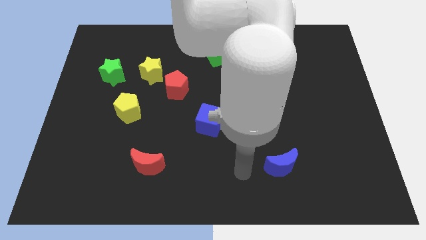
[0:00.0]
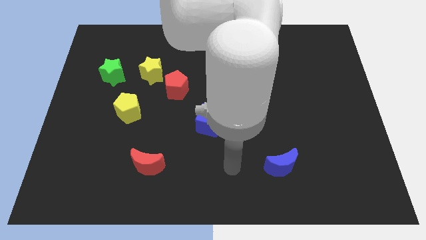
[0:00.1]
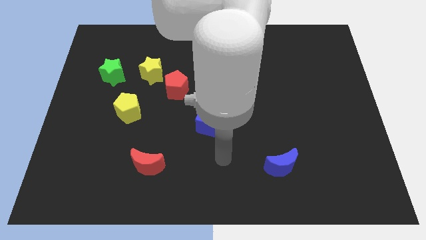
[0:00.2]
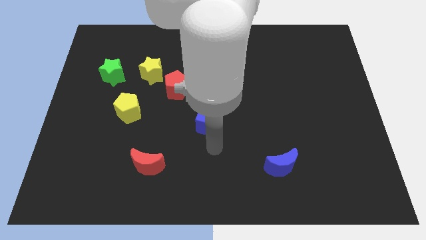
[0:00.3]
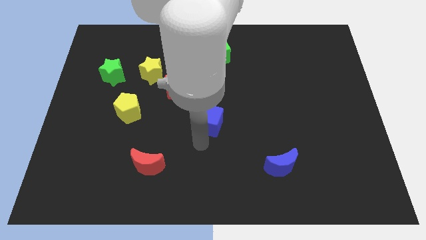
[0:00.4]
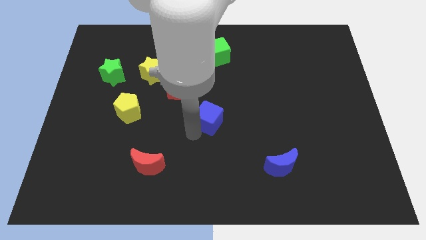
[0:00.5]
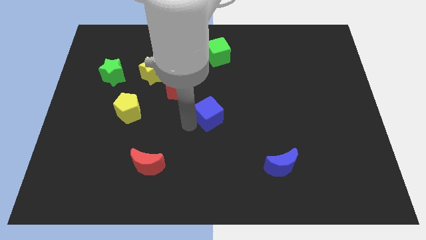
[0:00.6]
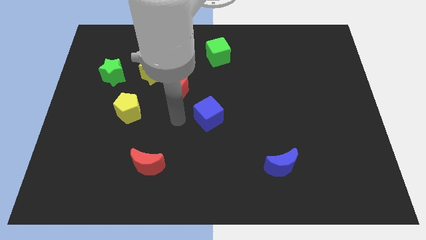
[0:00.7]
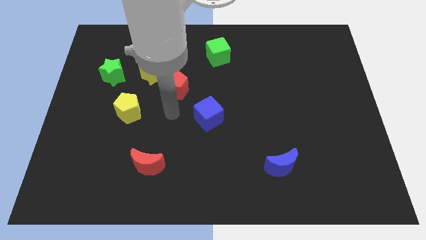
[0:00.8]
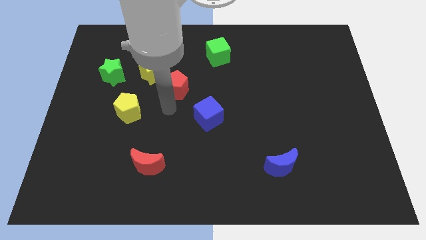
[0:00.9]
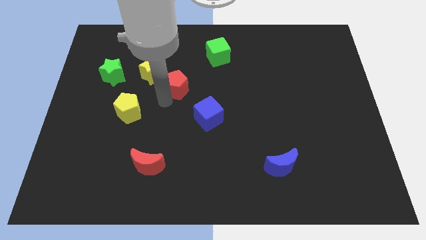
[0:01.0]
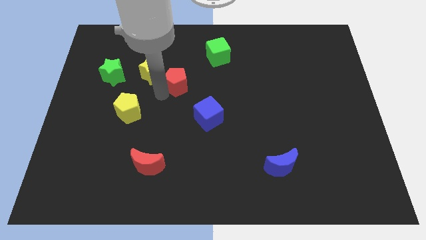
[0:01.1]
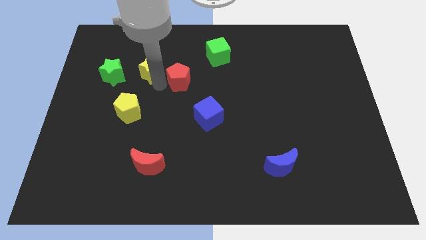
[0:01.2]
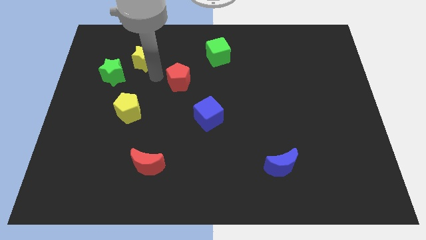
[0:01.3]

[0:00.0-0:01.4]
move the red pentagon away from the yellow star

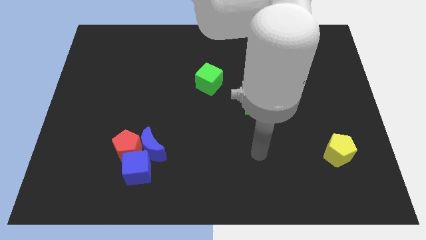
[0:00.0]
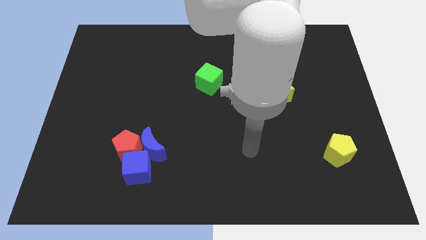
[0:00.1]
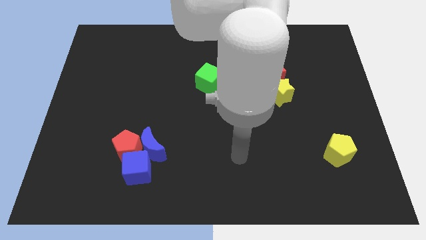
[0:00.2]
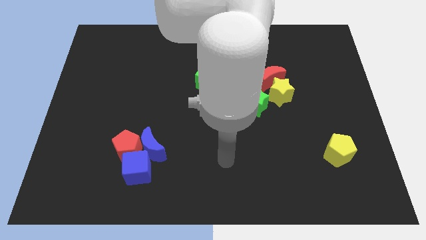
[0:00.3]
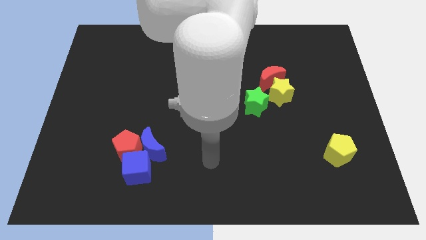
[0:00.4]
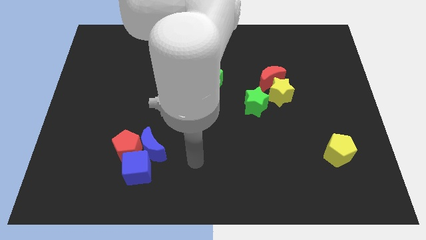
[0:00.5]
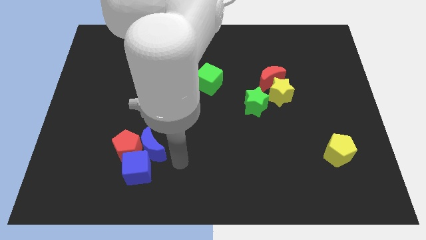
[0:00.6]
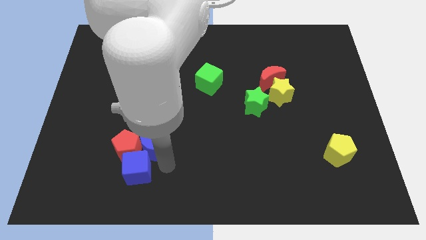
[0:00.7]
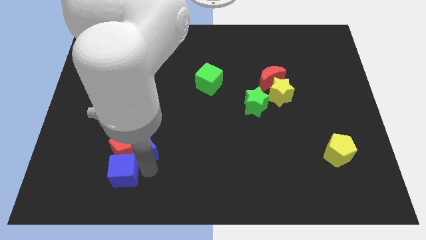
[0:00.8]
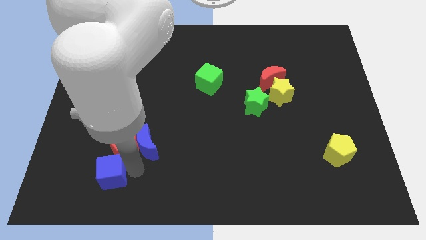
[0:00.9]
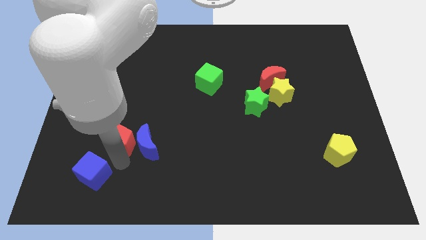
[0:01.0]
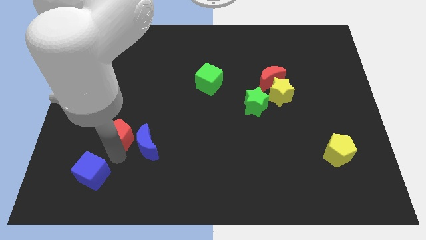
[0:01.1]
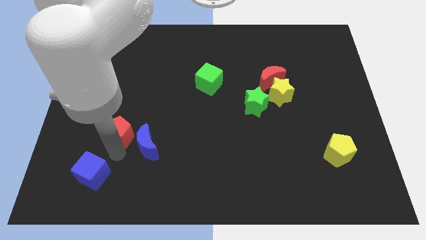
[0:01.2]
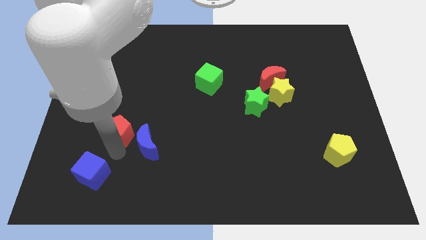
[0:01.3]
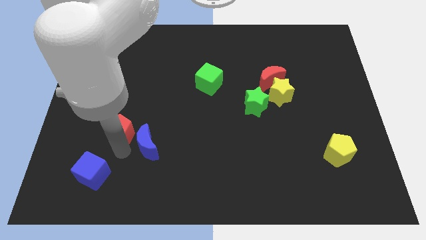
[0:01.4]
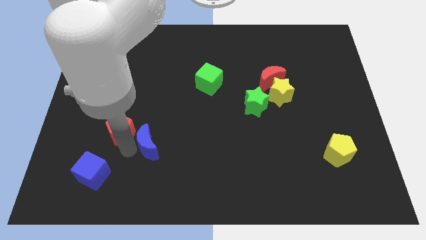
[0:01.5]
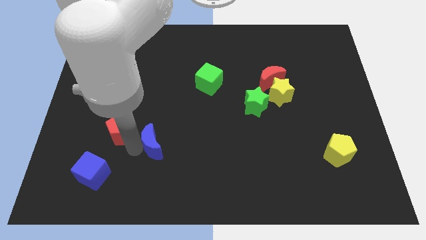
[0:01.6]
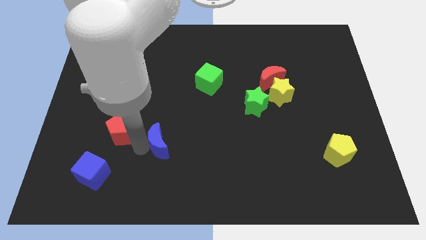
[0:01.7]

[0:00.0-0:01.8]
separate the blue moon from the red pentagon and blue cube

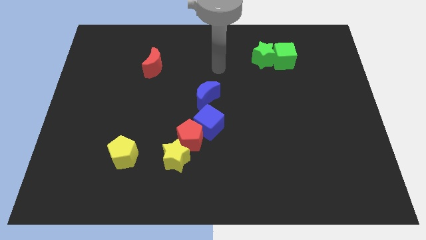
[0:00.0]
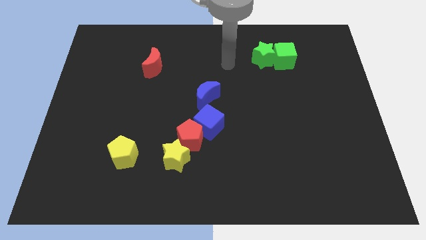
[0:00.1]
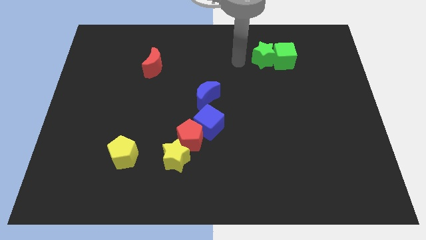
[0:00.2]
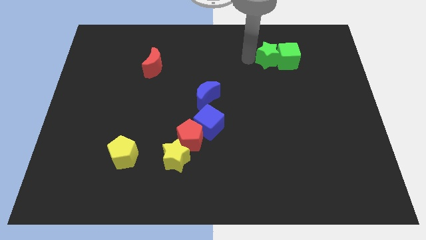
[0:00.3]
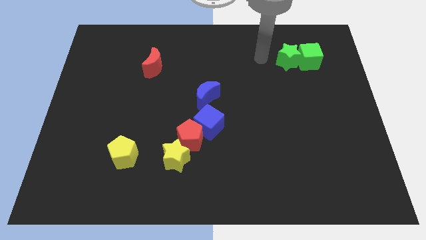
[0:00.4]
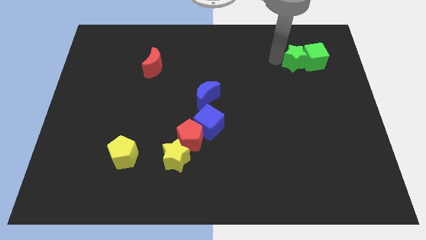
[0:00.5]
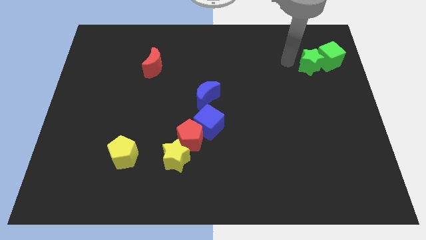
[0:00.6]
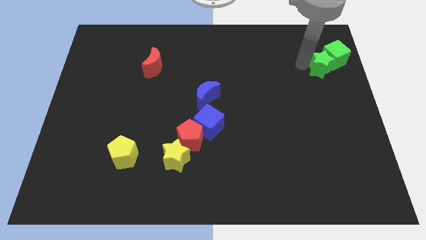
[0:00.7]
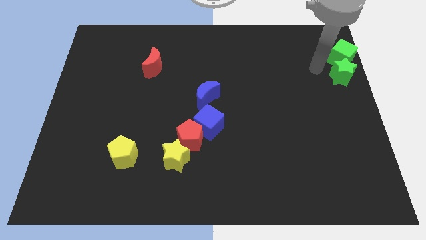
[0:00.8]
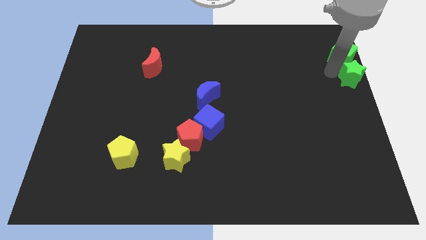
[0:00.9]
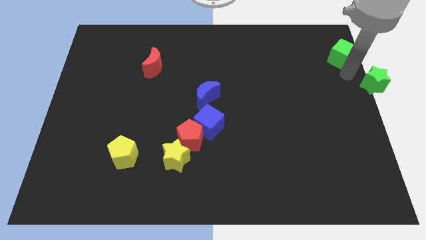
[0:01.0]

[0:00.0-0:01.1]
move the green cube away from the green star

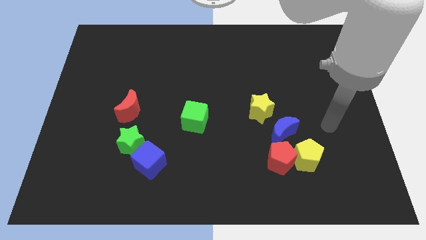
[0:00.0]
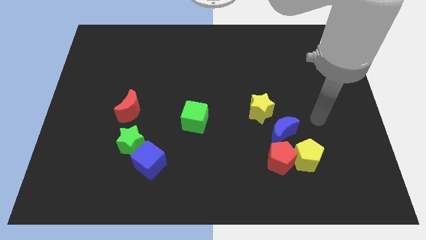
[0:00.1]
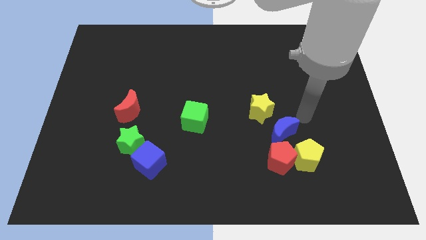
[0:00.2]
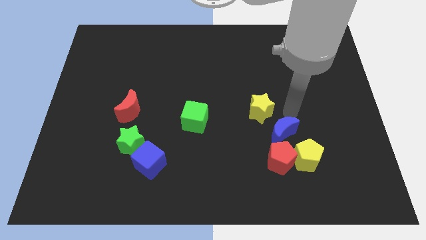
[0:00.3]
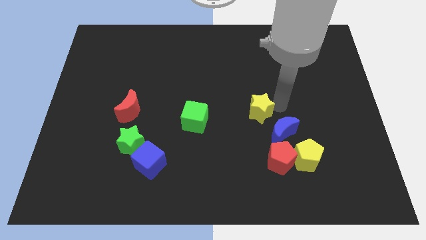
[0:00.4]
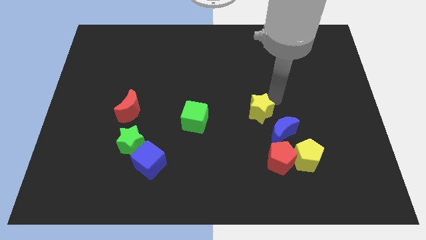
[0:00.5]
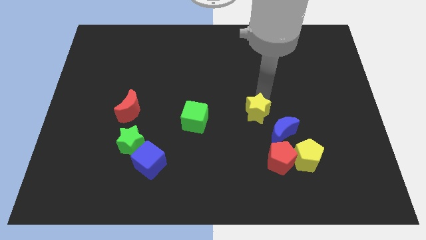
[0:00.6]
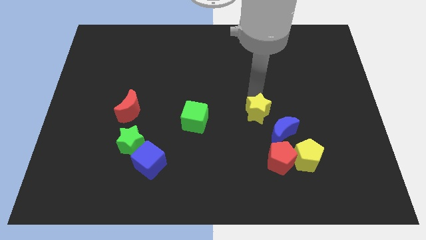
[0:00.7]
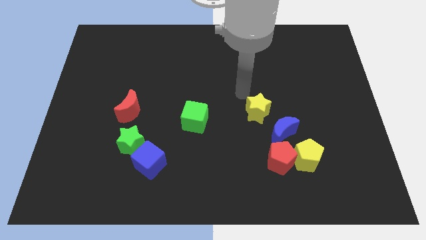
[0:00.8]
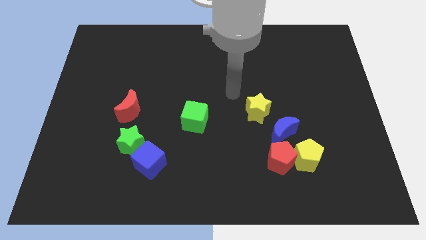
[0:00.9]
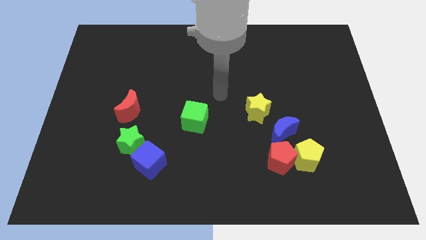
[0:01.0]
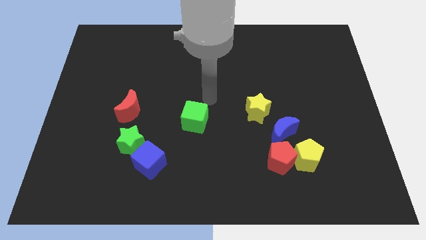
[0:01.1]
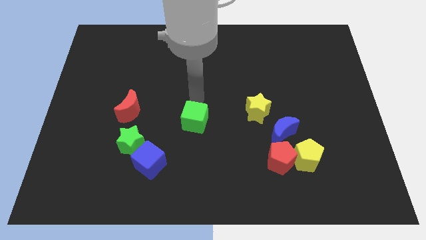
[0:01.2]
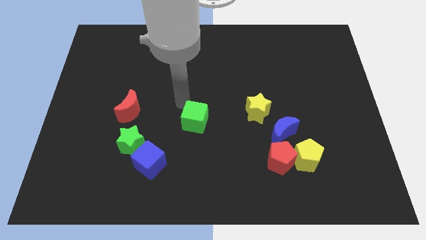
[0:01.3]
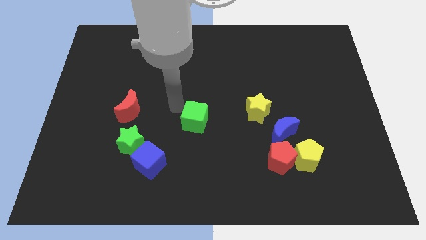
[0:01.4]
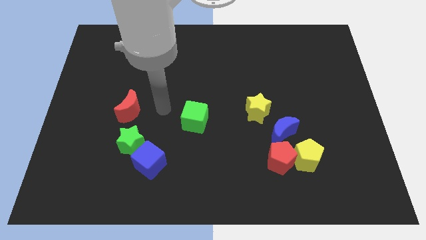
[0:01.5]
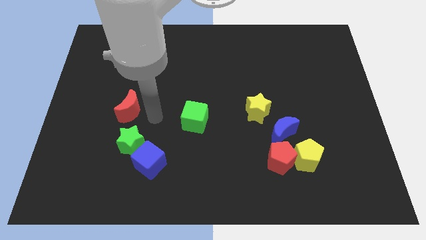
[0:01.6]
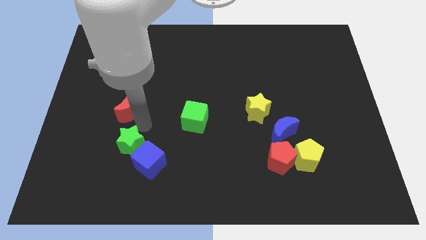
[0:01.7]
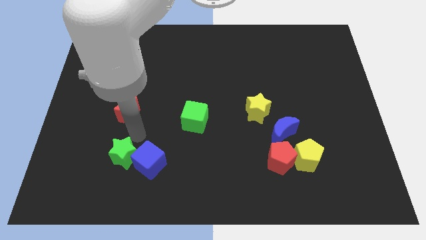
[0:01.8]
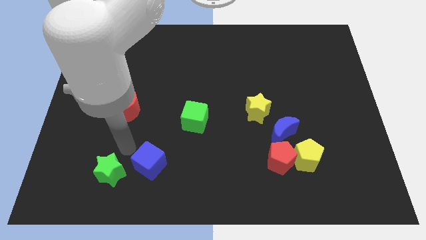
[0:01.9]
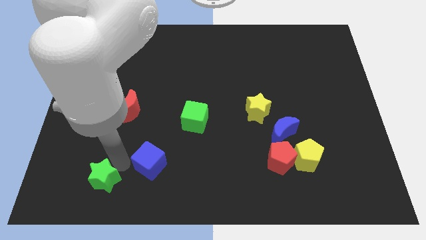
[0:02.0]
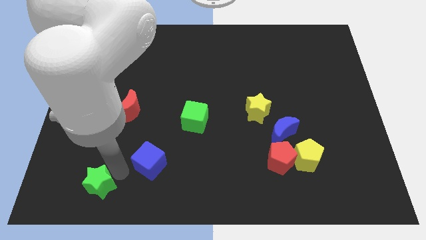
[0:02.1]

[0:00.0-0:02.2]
separate the blue cube from the green star

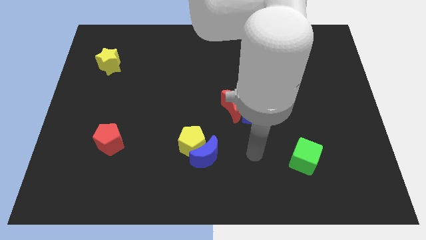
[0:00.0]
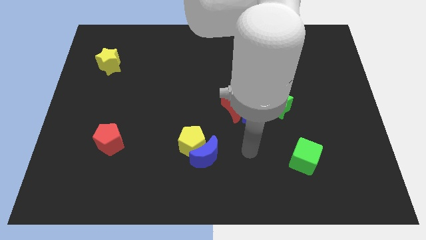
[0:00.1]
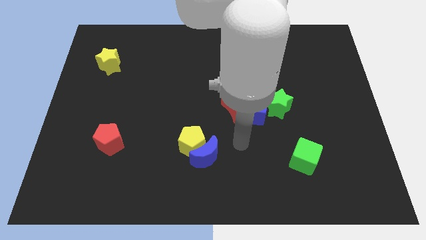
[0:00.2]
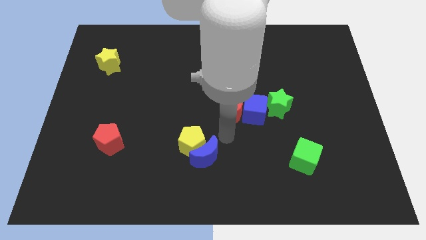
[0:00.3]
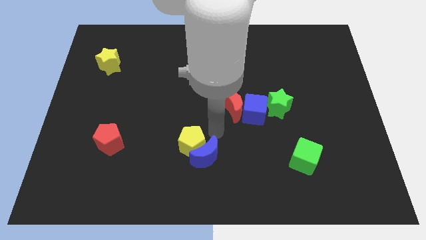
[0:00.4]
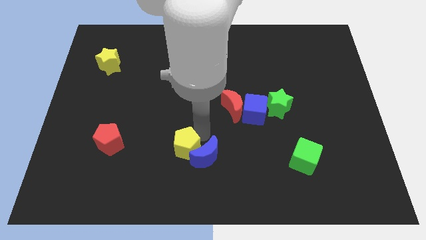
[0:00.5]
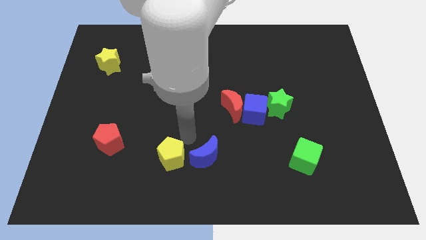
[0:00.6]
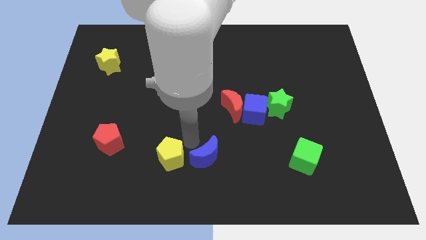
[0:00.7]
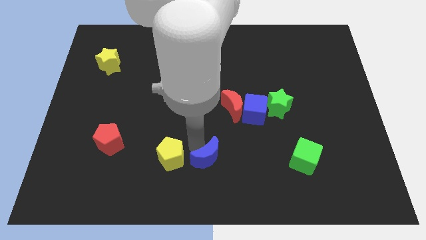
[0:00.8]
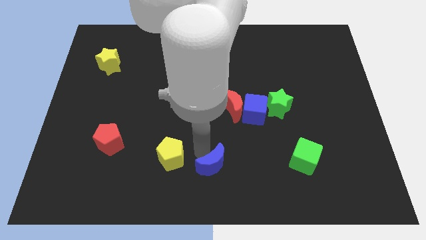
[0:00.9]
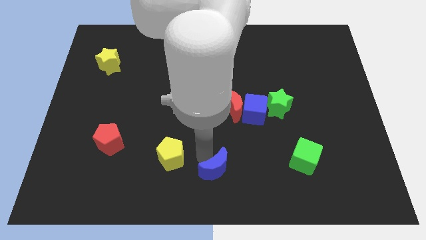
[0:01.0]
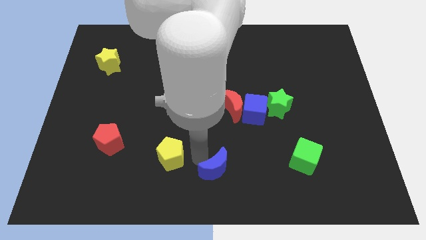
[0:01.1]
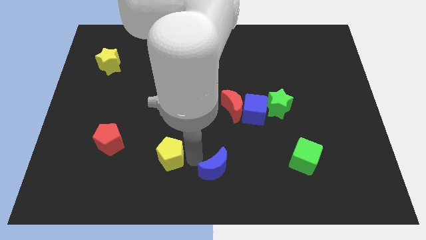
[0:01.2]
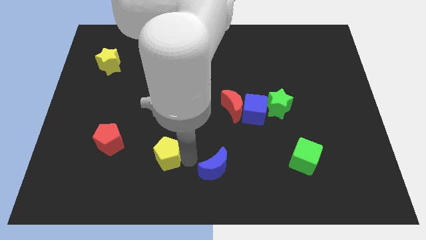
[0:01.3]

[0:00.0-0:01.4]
pull the blue moon apart from the yellow pentagon

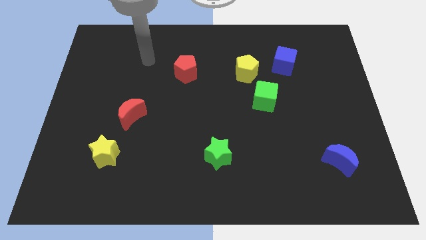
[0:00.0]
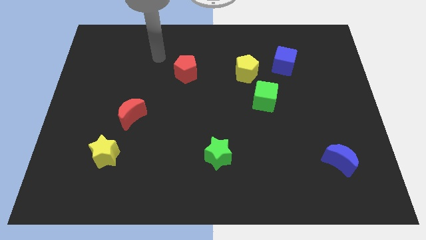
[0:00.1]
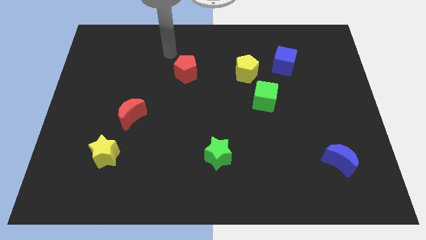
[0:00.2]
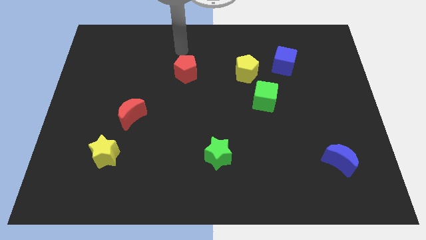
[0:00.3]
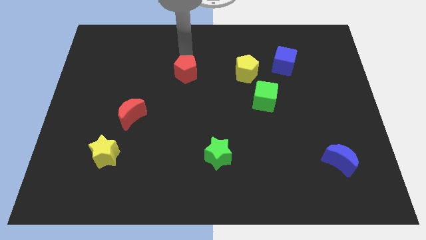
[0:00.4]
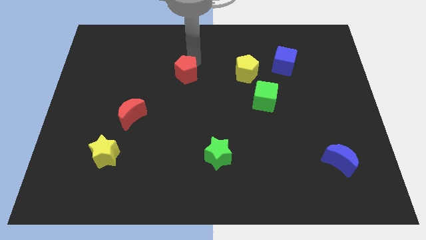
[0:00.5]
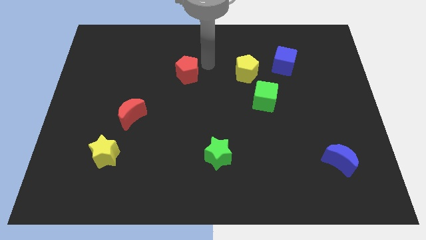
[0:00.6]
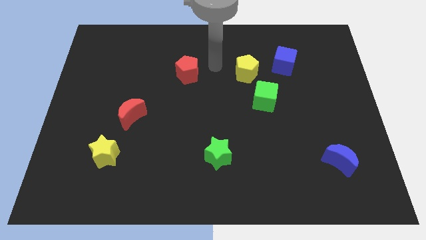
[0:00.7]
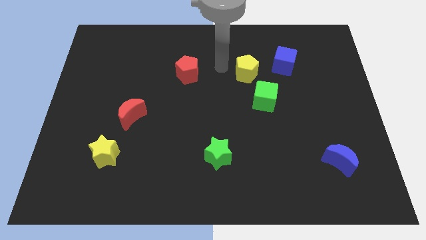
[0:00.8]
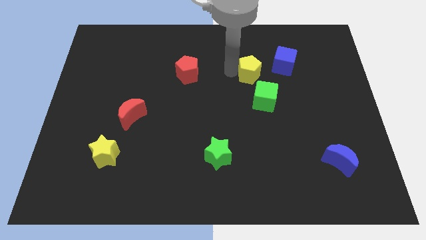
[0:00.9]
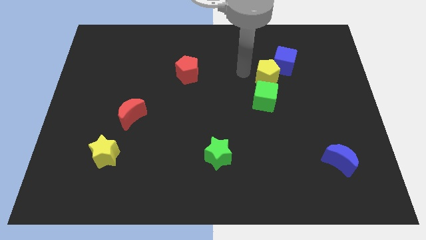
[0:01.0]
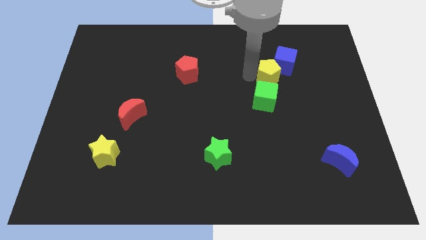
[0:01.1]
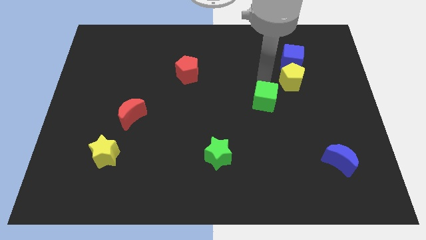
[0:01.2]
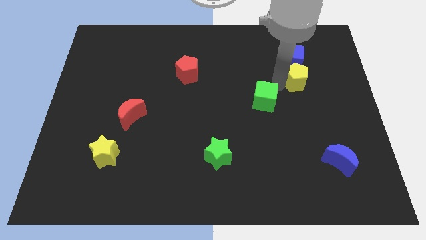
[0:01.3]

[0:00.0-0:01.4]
move the green cube away from the yellow pentagon
